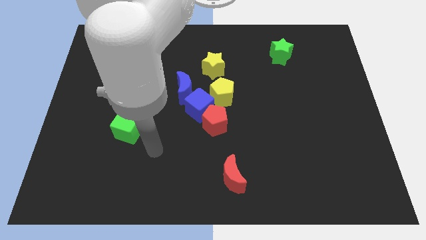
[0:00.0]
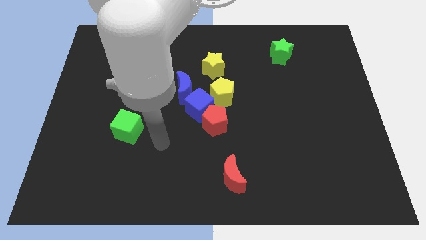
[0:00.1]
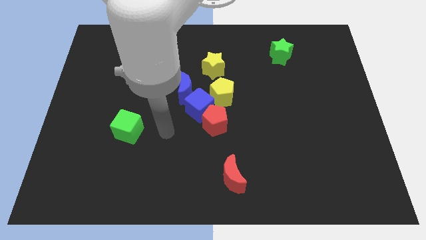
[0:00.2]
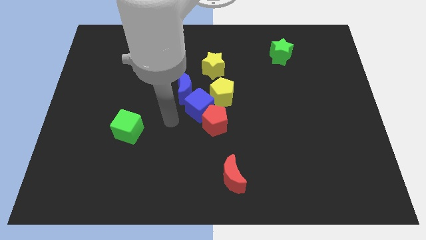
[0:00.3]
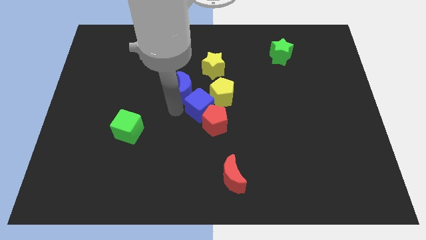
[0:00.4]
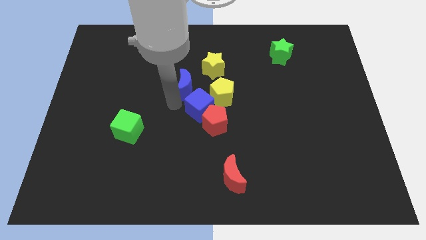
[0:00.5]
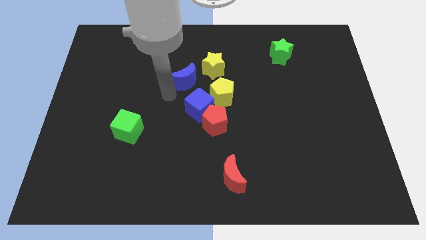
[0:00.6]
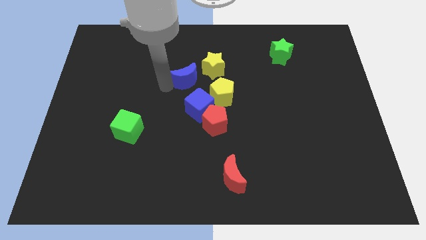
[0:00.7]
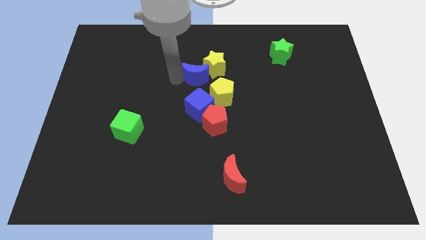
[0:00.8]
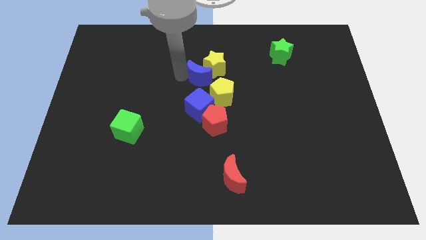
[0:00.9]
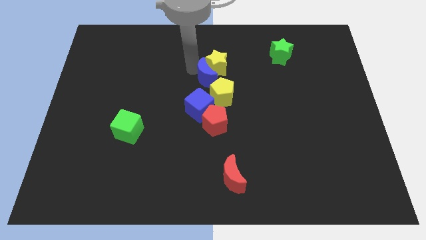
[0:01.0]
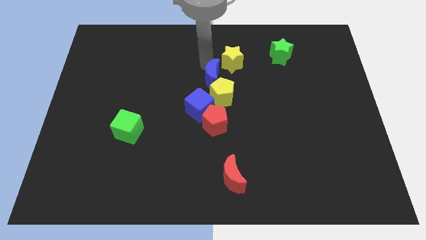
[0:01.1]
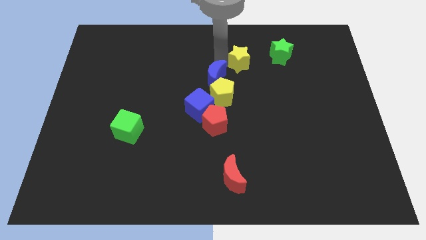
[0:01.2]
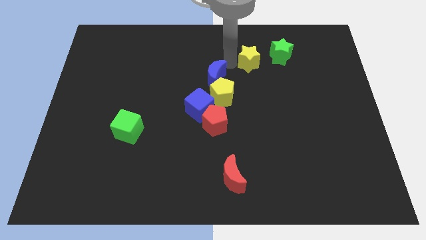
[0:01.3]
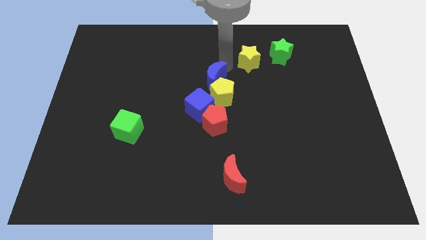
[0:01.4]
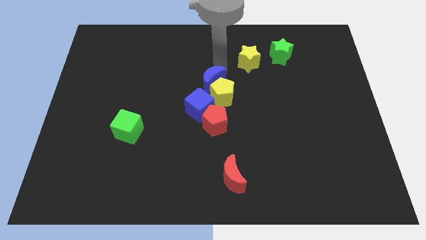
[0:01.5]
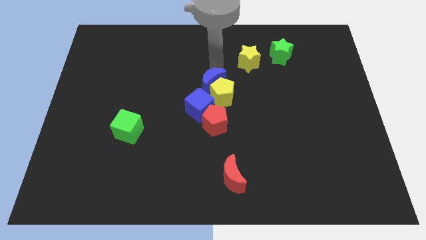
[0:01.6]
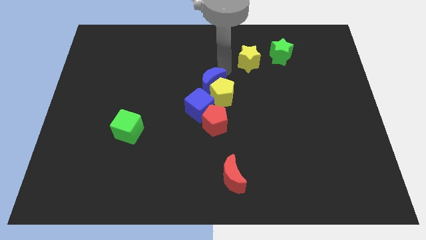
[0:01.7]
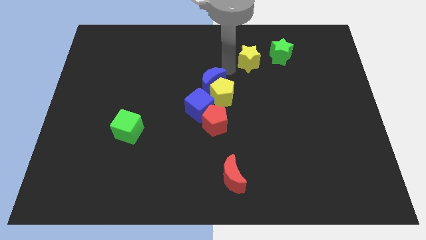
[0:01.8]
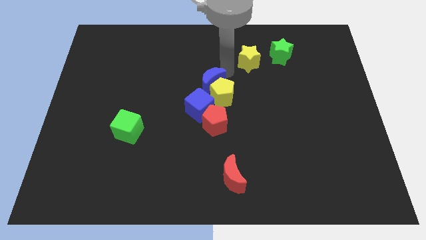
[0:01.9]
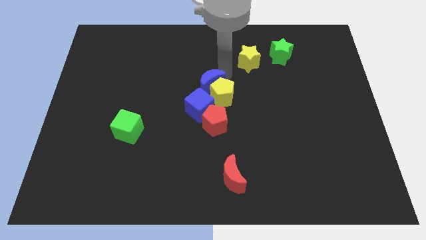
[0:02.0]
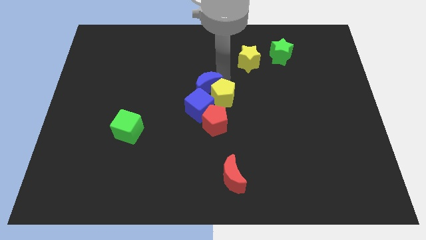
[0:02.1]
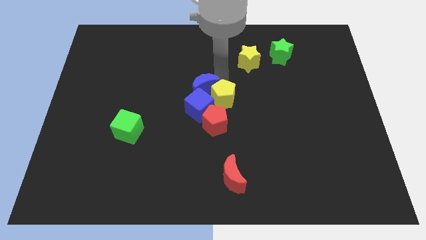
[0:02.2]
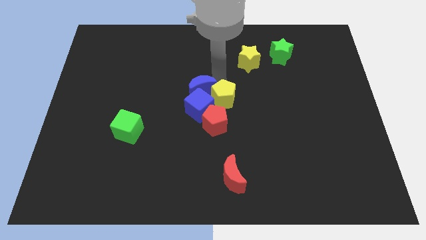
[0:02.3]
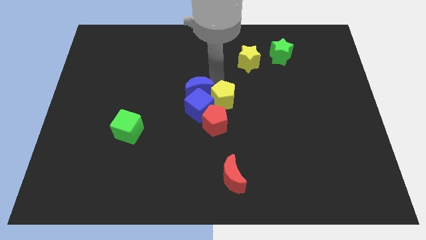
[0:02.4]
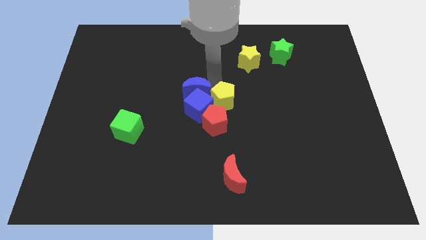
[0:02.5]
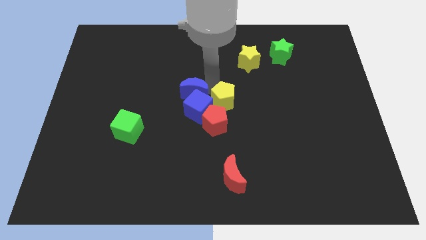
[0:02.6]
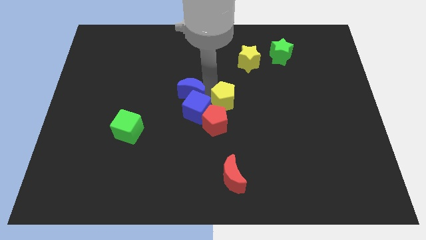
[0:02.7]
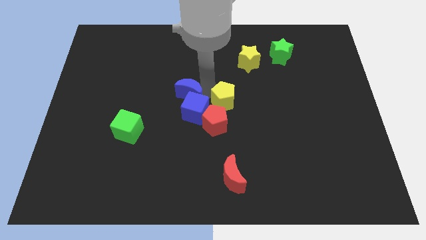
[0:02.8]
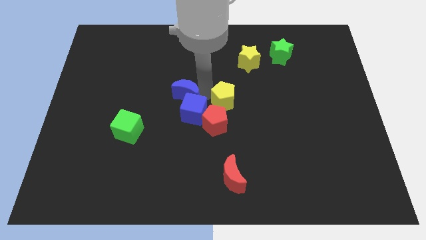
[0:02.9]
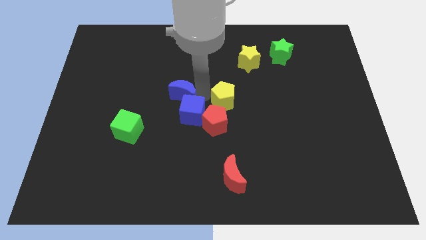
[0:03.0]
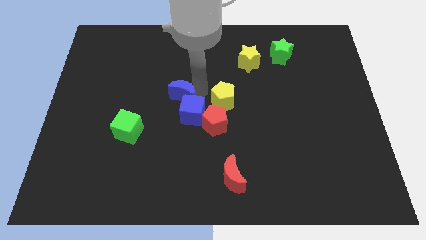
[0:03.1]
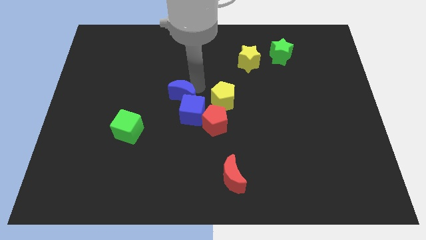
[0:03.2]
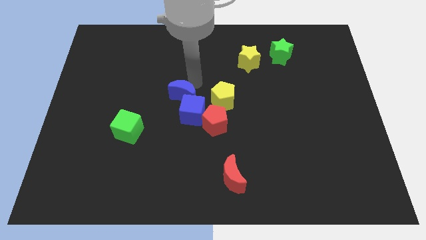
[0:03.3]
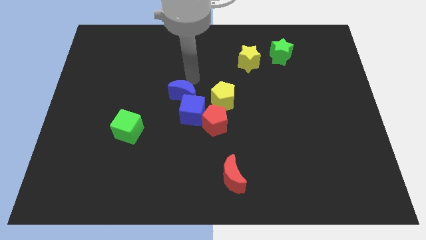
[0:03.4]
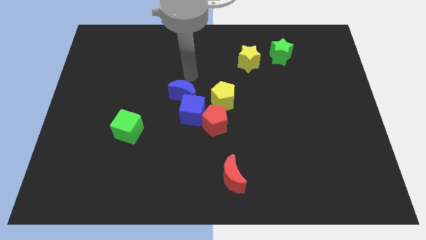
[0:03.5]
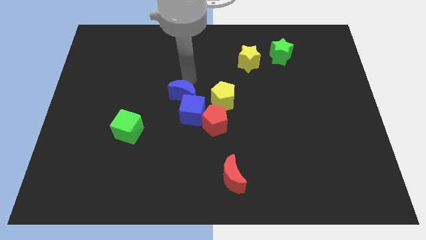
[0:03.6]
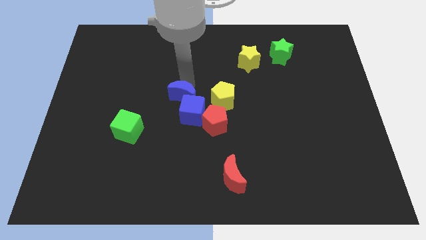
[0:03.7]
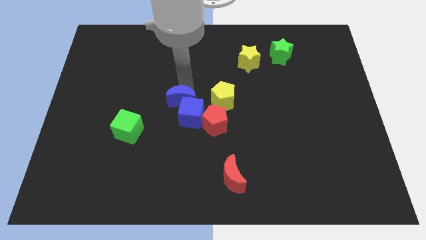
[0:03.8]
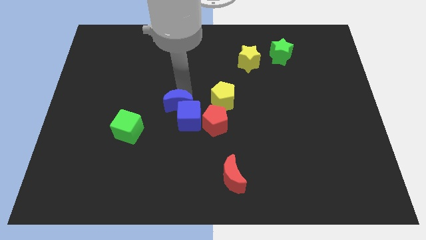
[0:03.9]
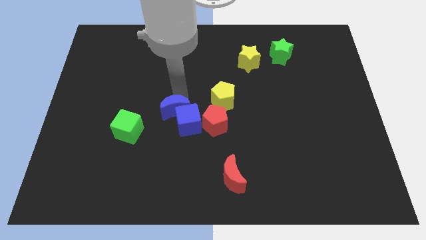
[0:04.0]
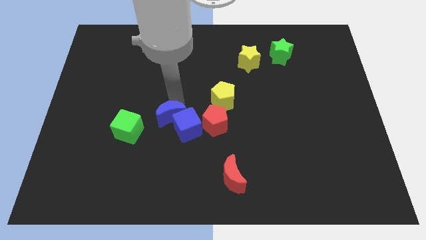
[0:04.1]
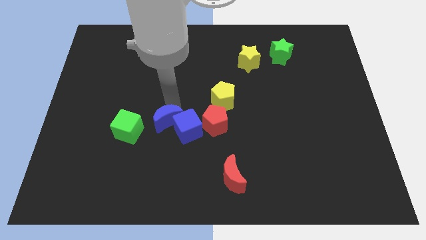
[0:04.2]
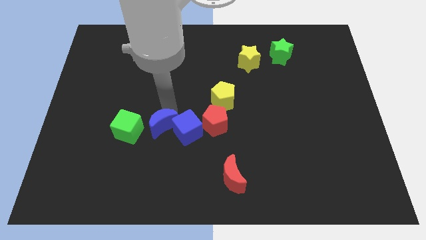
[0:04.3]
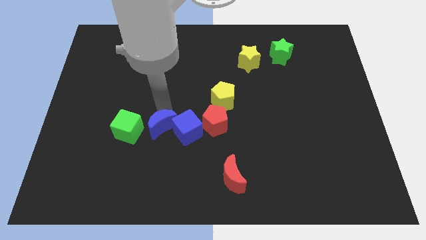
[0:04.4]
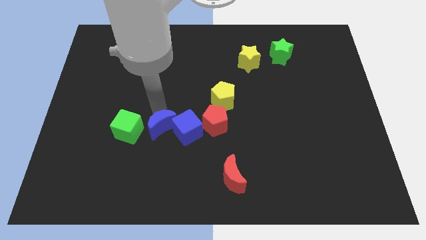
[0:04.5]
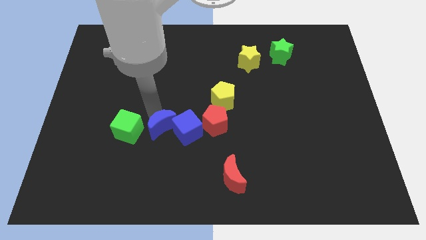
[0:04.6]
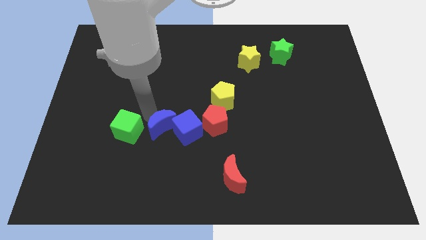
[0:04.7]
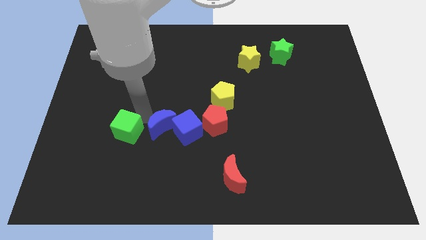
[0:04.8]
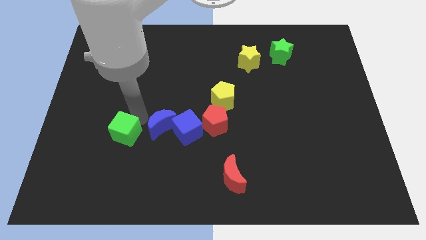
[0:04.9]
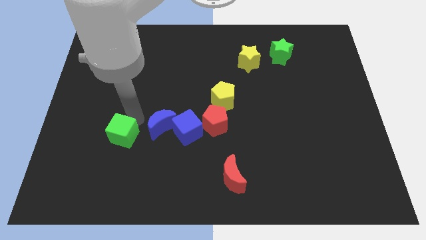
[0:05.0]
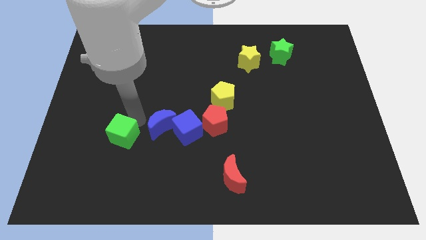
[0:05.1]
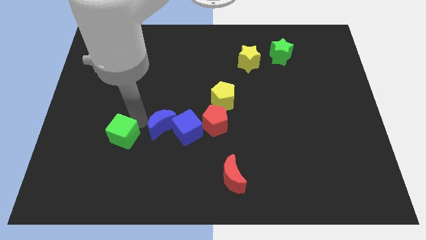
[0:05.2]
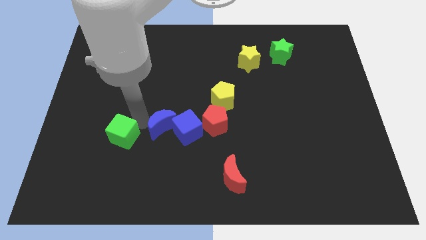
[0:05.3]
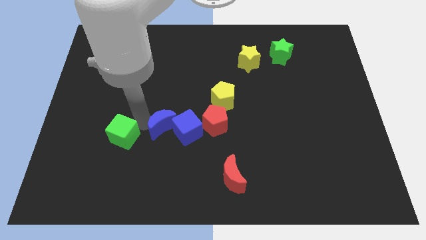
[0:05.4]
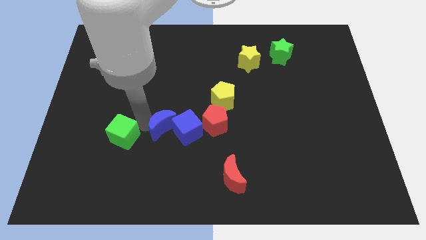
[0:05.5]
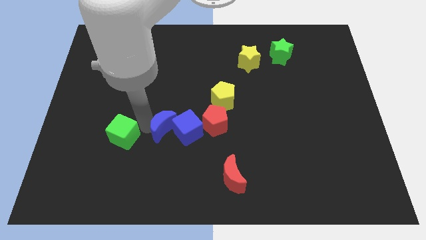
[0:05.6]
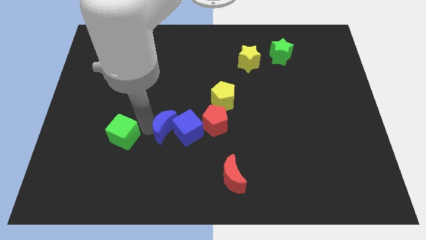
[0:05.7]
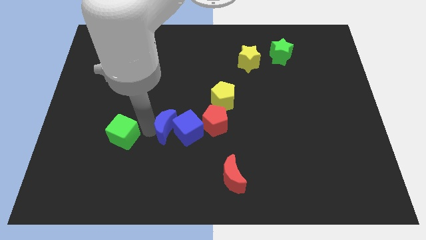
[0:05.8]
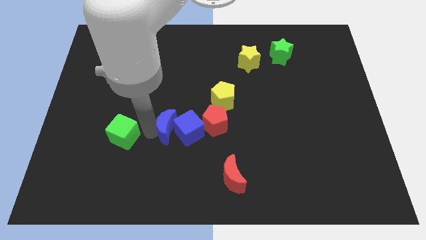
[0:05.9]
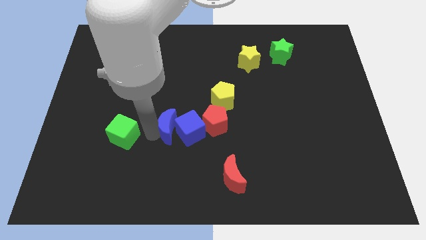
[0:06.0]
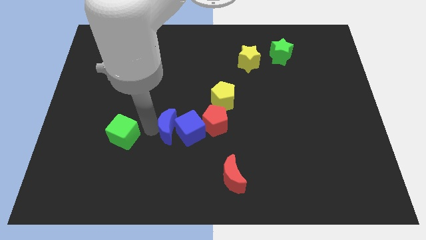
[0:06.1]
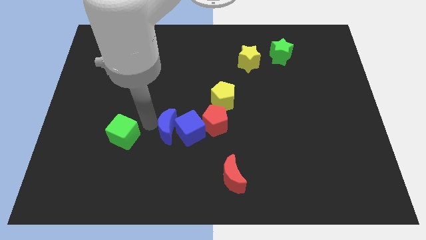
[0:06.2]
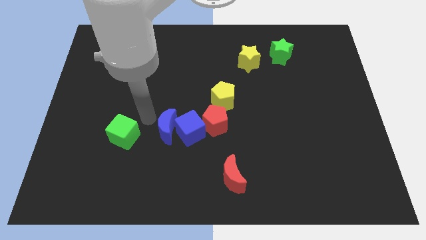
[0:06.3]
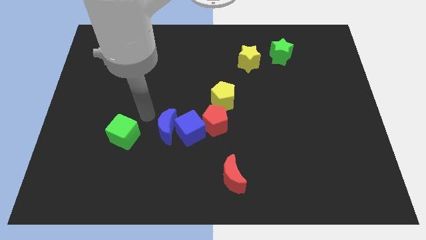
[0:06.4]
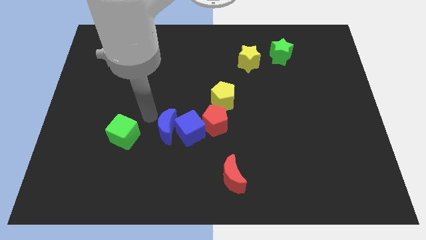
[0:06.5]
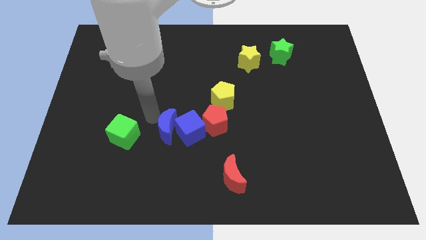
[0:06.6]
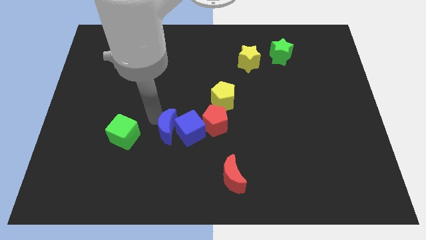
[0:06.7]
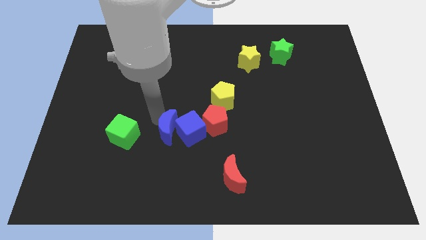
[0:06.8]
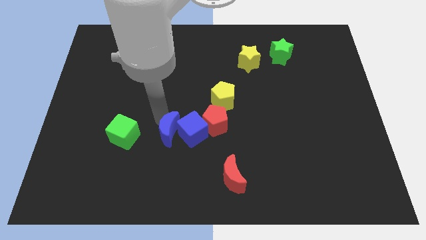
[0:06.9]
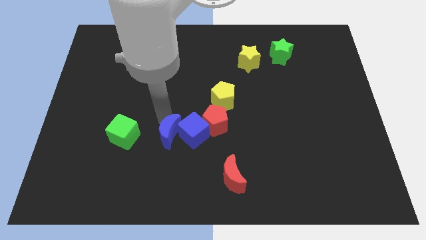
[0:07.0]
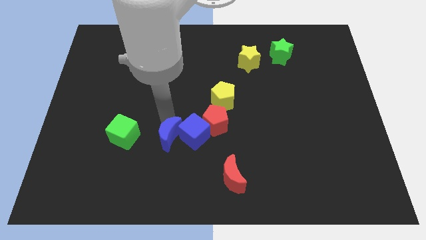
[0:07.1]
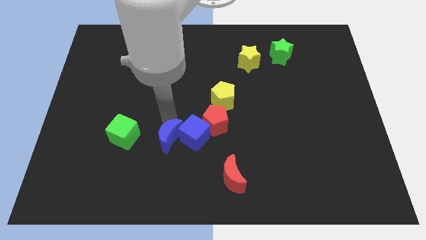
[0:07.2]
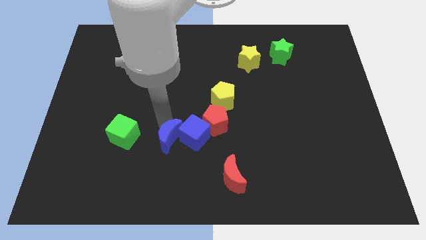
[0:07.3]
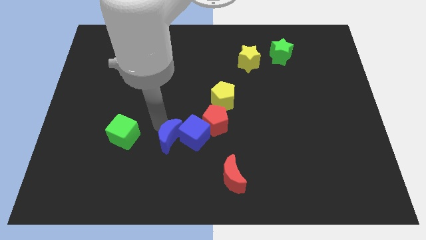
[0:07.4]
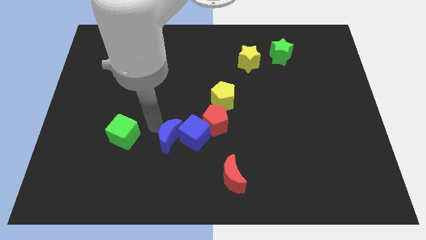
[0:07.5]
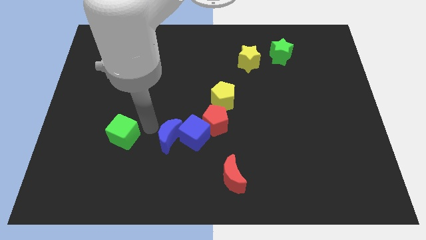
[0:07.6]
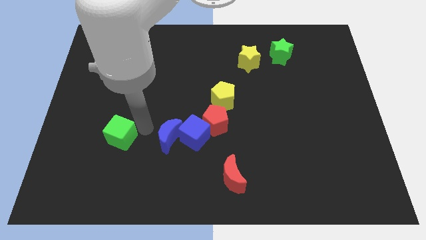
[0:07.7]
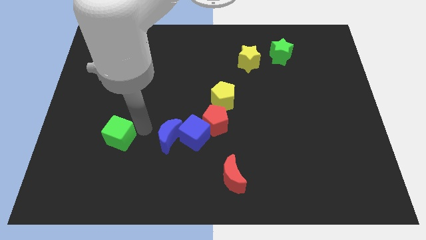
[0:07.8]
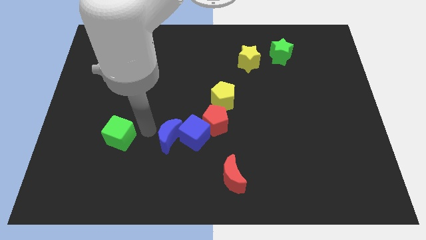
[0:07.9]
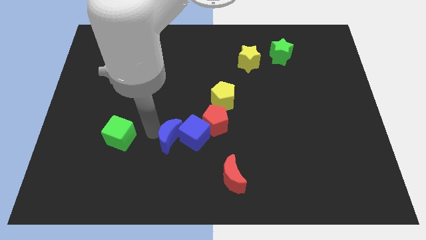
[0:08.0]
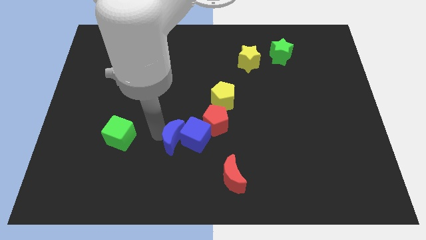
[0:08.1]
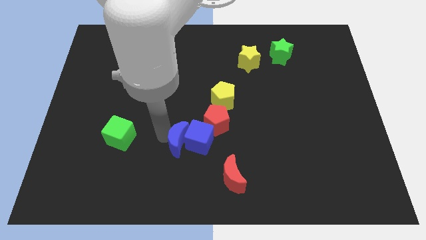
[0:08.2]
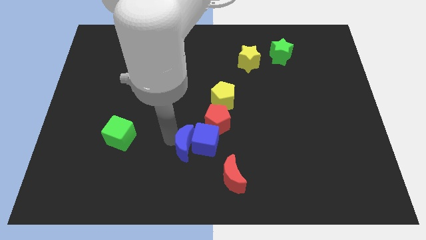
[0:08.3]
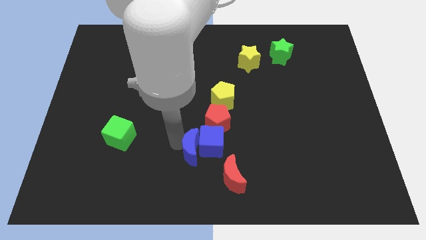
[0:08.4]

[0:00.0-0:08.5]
slightly move the blue moon diagonally down and right
